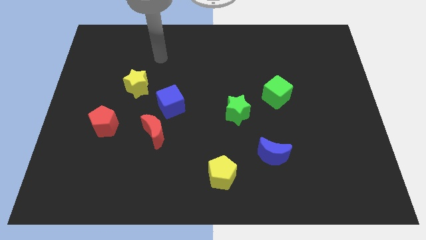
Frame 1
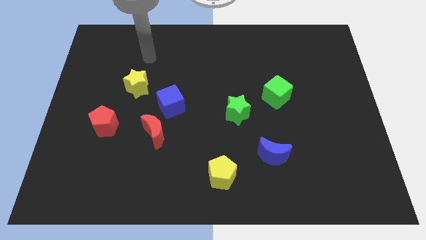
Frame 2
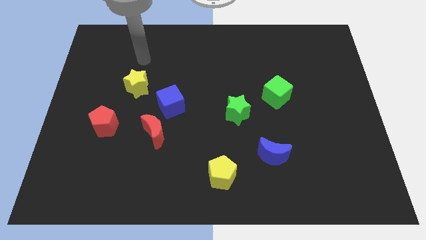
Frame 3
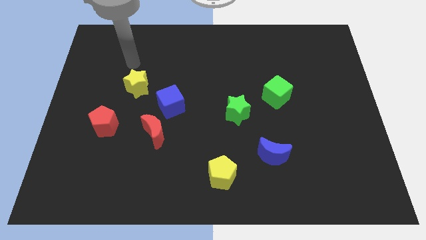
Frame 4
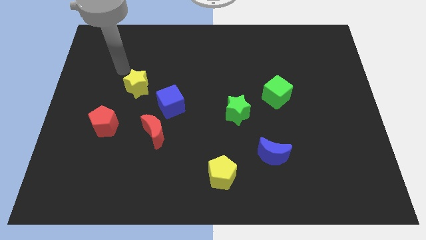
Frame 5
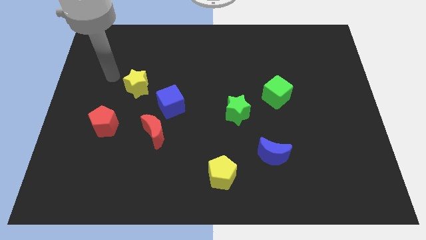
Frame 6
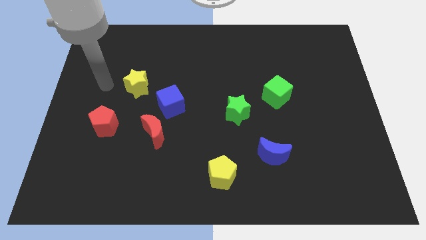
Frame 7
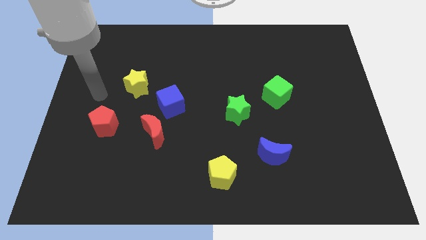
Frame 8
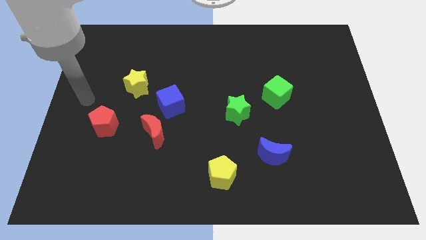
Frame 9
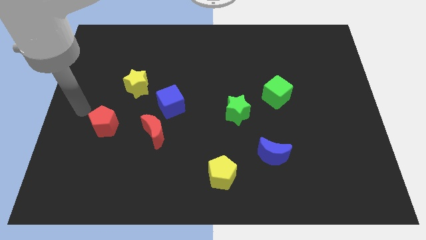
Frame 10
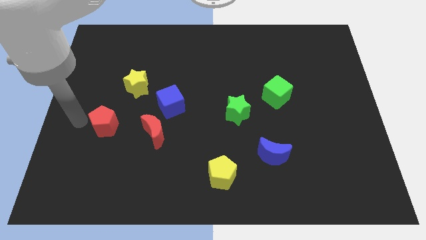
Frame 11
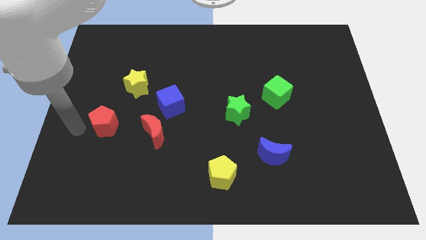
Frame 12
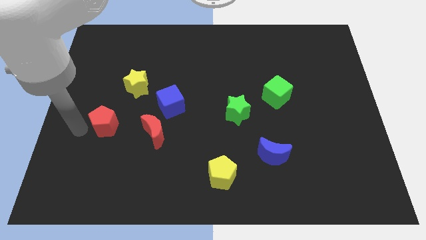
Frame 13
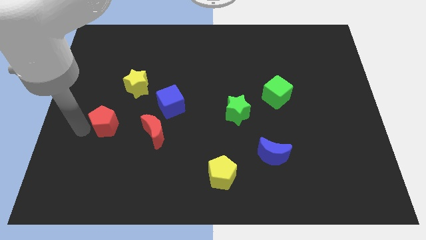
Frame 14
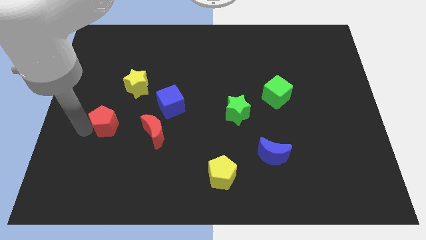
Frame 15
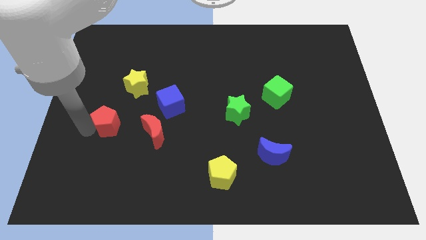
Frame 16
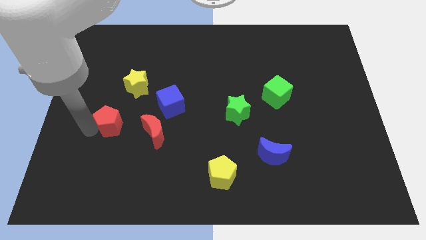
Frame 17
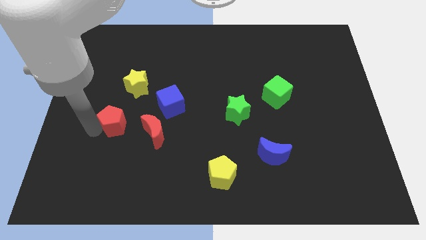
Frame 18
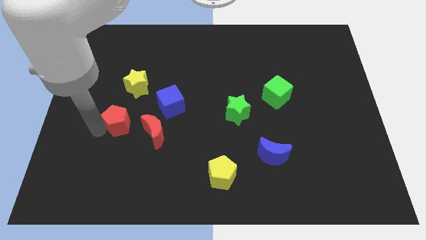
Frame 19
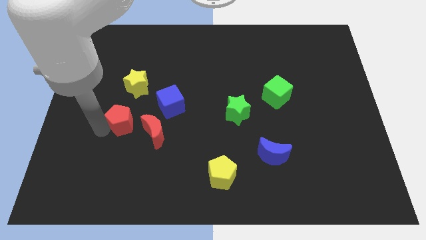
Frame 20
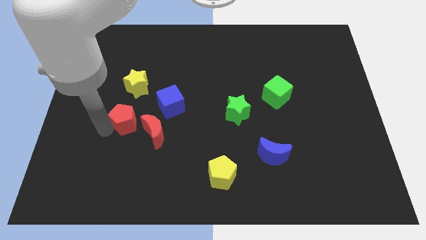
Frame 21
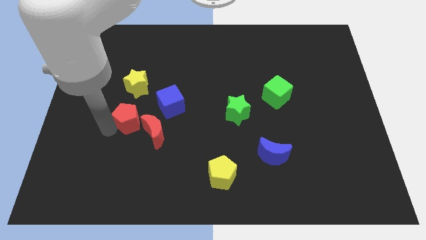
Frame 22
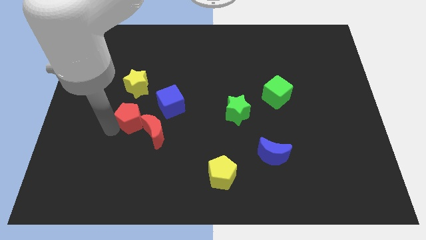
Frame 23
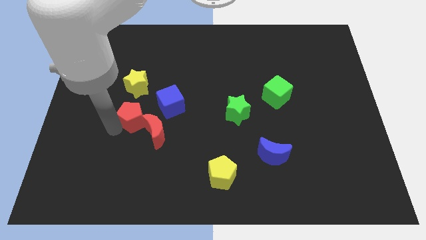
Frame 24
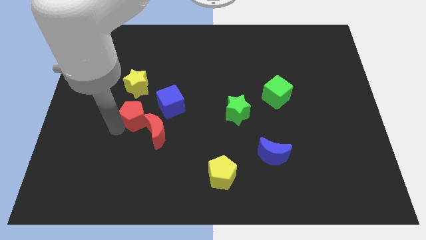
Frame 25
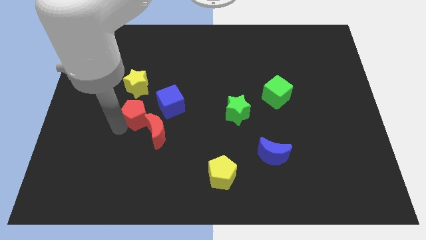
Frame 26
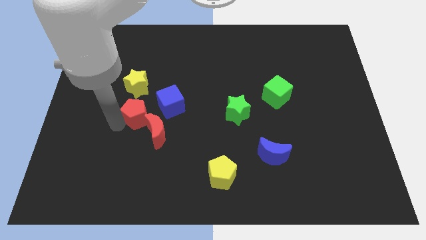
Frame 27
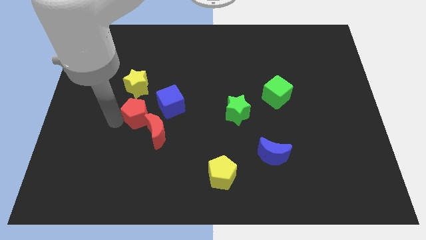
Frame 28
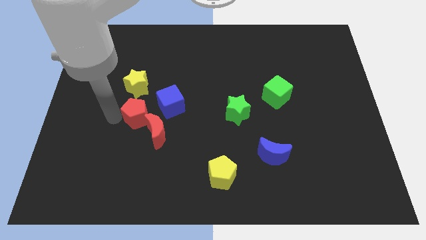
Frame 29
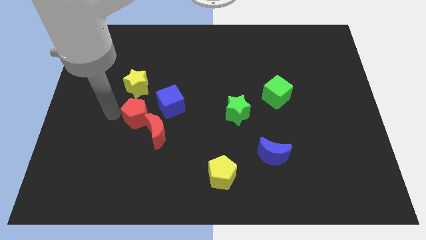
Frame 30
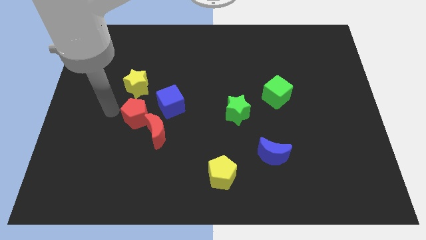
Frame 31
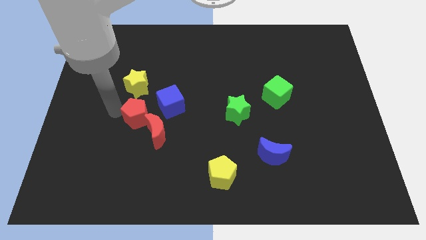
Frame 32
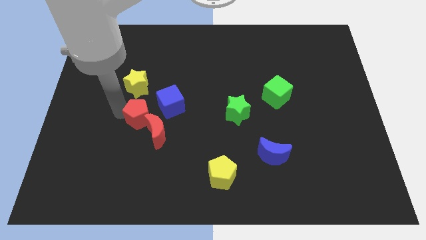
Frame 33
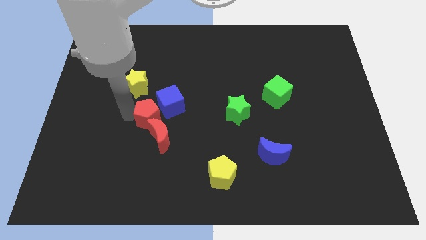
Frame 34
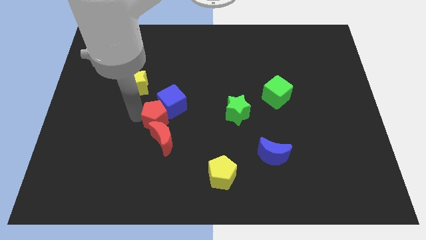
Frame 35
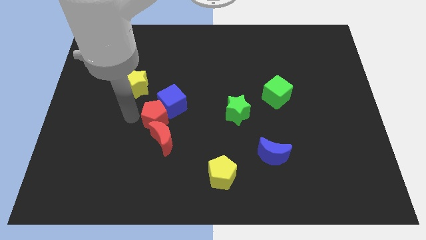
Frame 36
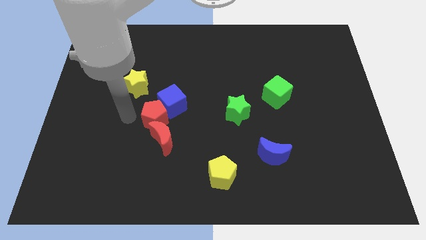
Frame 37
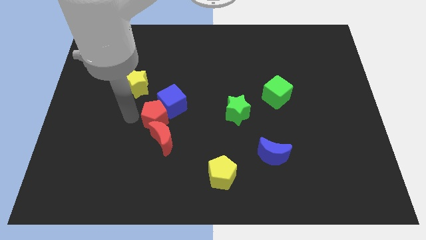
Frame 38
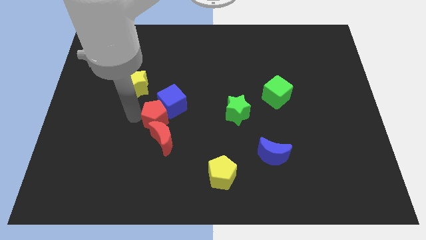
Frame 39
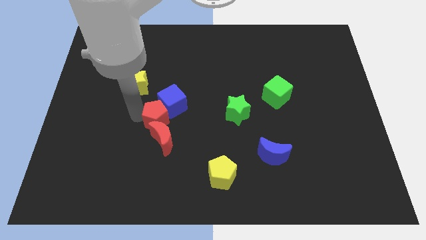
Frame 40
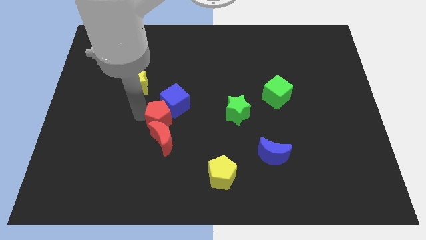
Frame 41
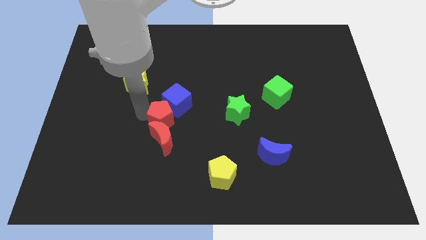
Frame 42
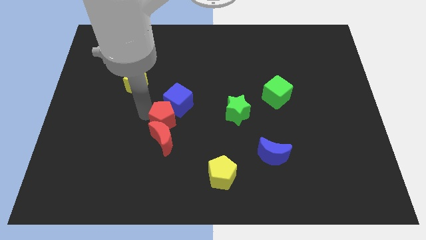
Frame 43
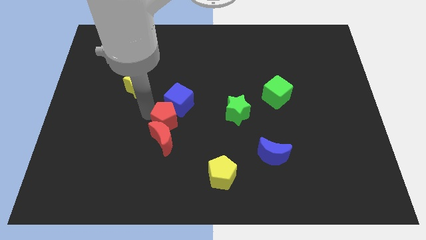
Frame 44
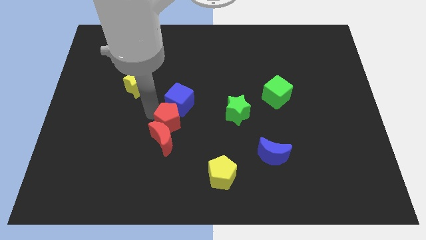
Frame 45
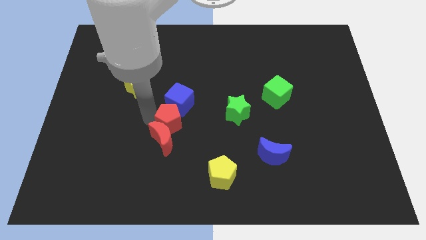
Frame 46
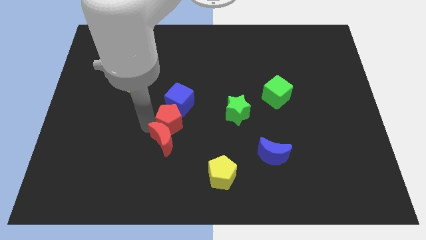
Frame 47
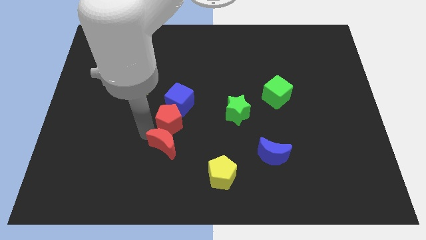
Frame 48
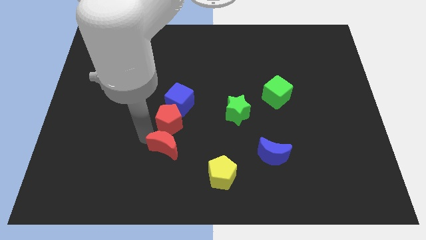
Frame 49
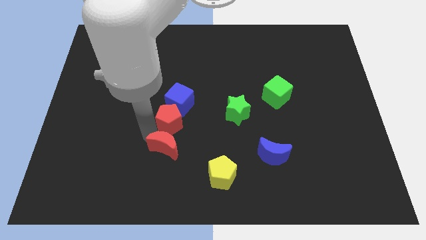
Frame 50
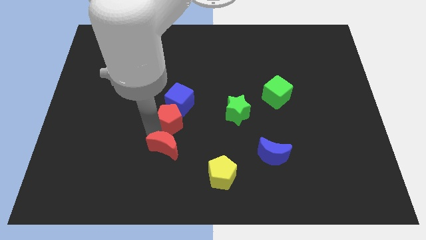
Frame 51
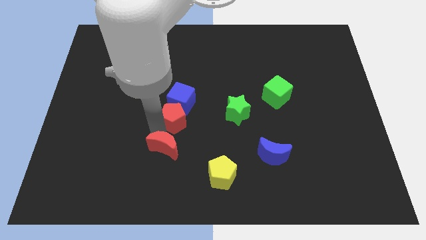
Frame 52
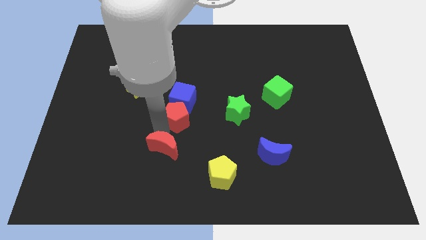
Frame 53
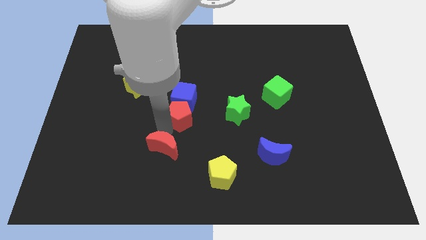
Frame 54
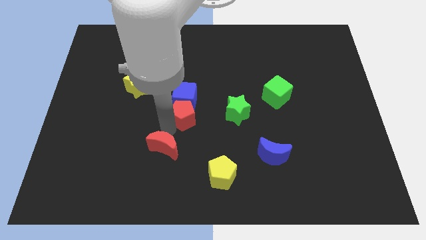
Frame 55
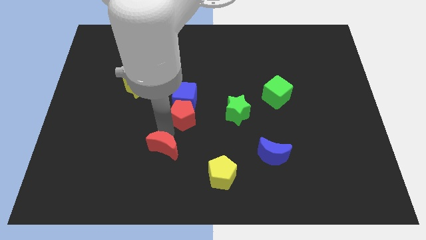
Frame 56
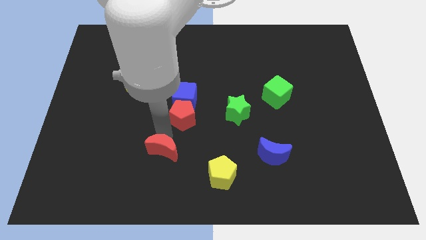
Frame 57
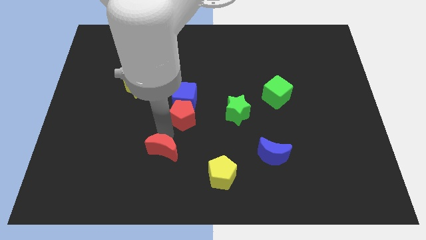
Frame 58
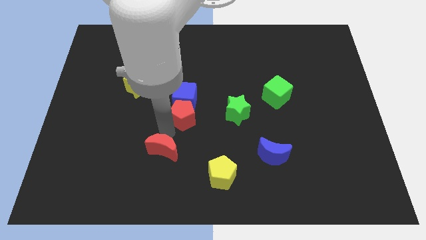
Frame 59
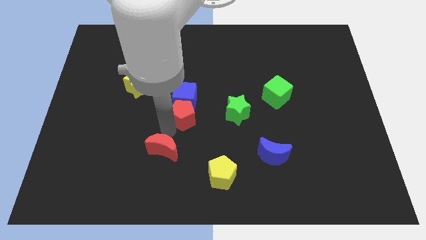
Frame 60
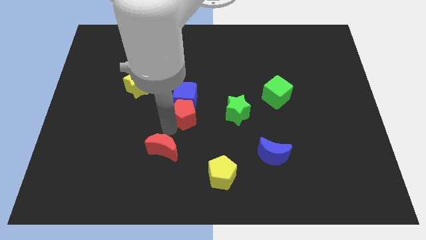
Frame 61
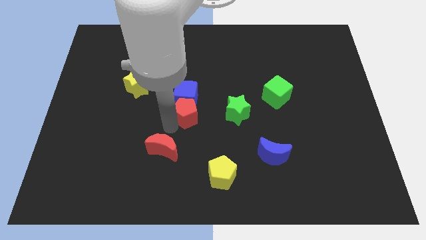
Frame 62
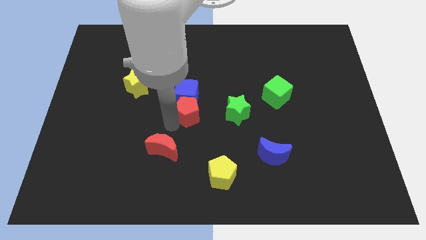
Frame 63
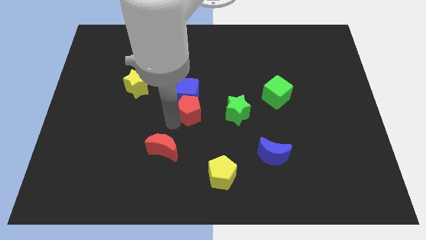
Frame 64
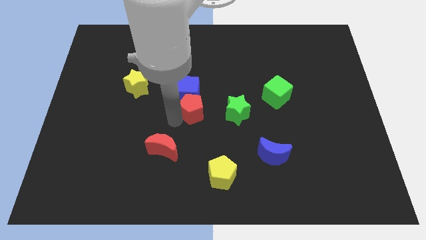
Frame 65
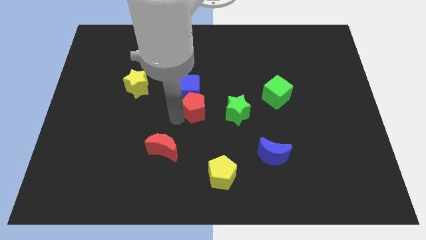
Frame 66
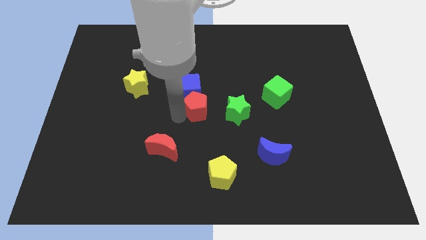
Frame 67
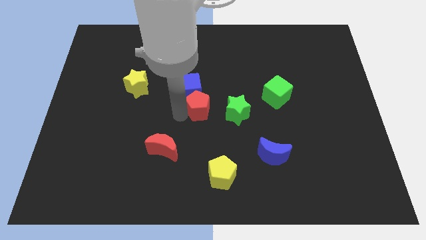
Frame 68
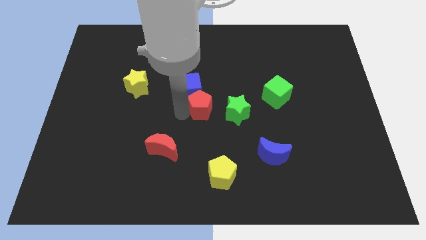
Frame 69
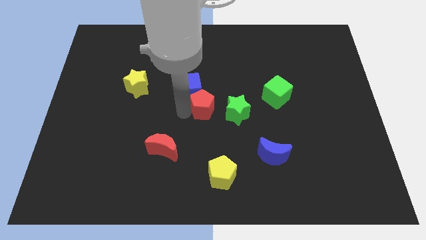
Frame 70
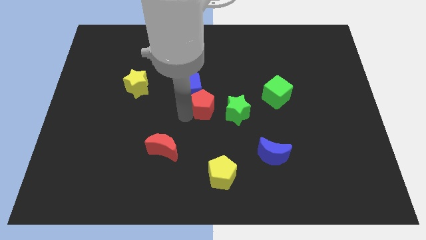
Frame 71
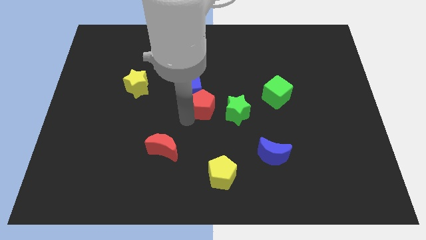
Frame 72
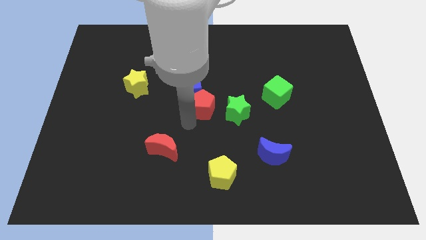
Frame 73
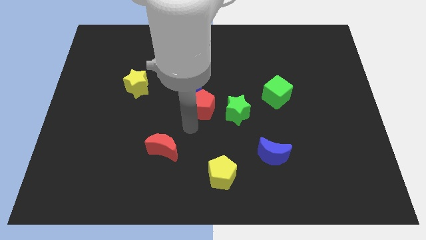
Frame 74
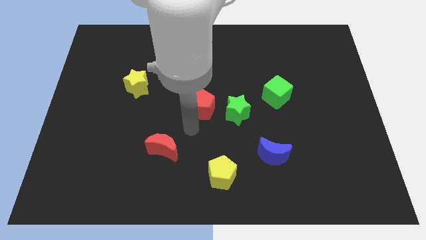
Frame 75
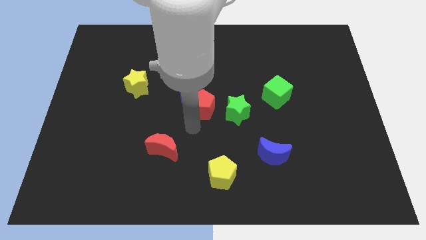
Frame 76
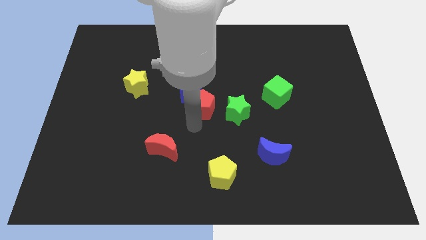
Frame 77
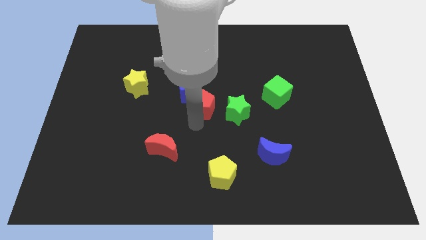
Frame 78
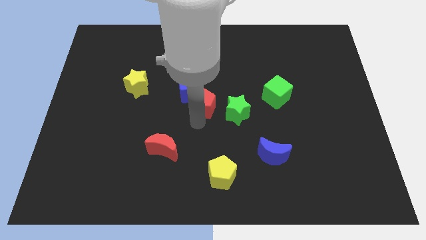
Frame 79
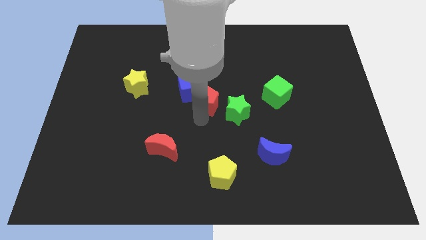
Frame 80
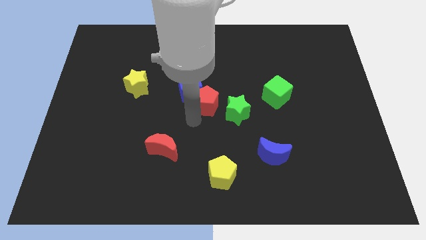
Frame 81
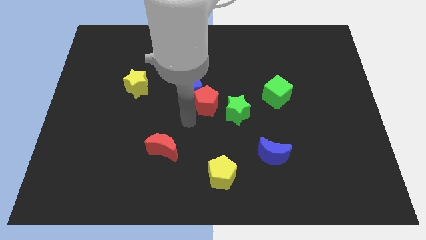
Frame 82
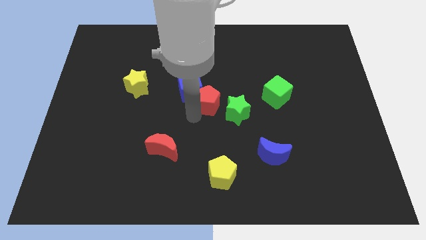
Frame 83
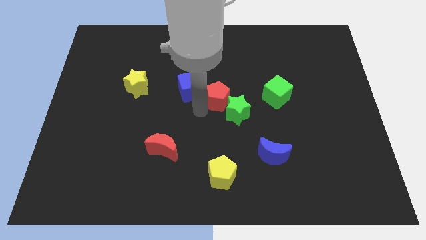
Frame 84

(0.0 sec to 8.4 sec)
push the red pentagon above the green star
